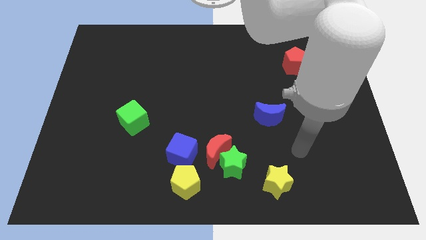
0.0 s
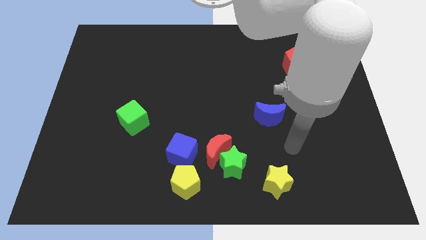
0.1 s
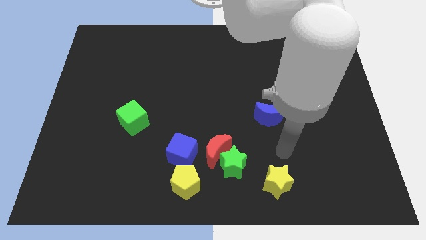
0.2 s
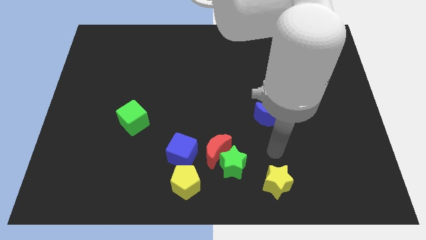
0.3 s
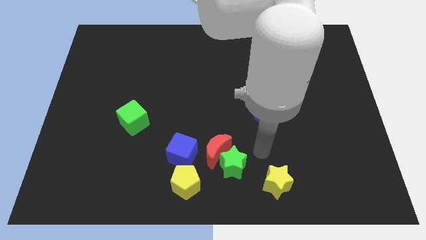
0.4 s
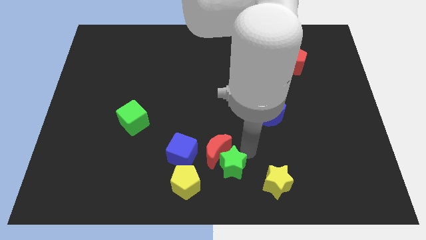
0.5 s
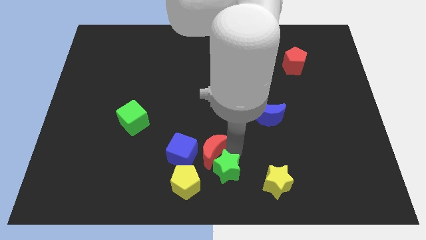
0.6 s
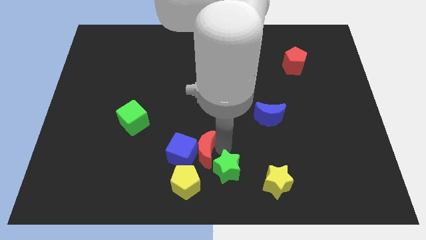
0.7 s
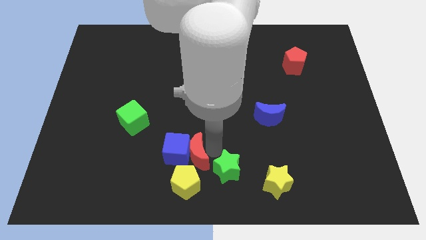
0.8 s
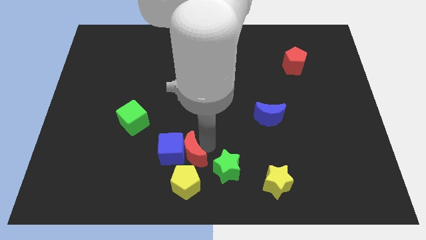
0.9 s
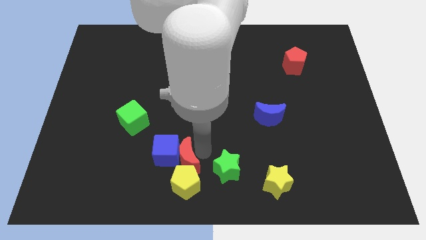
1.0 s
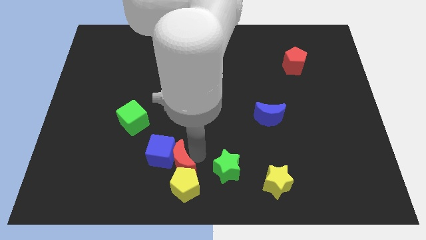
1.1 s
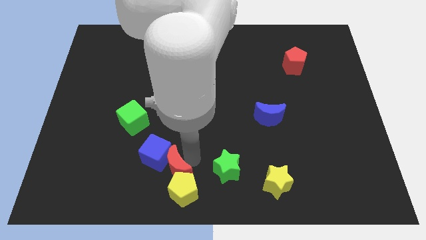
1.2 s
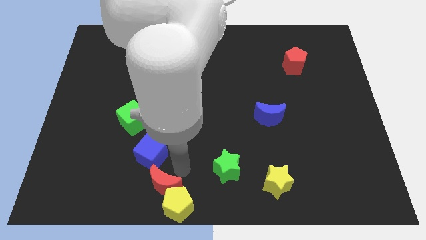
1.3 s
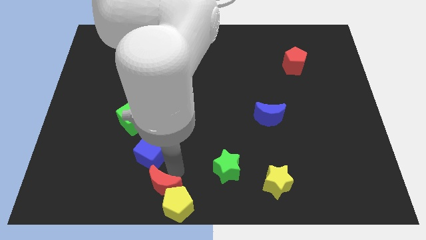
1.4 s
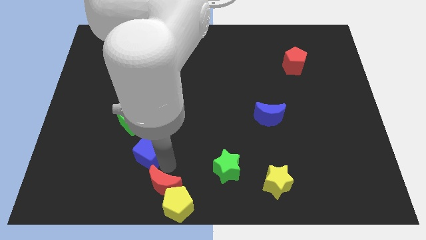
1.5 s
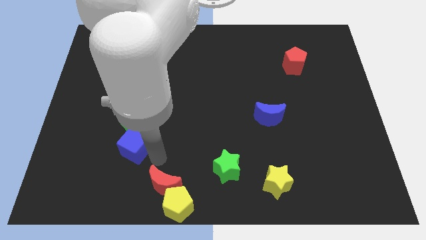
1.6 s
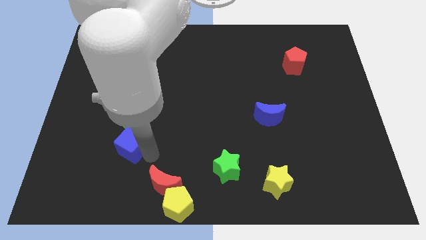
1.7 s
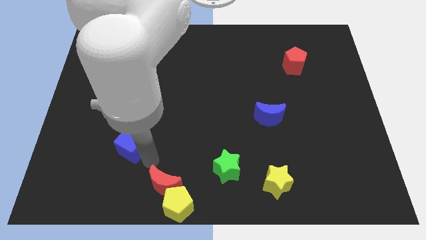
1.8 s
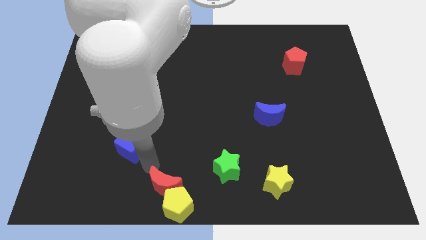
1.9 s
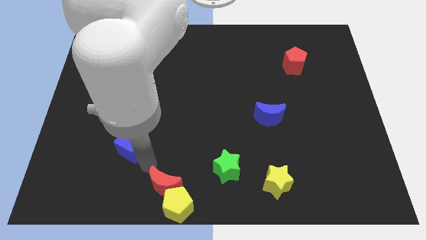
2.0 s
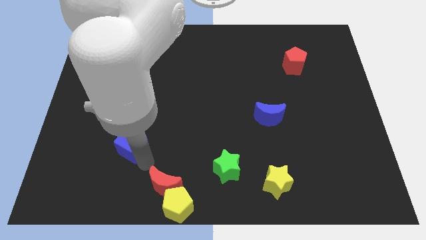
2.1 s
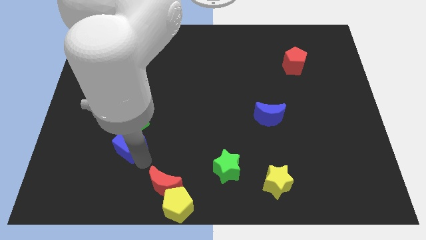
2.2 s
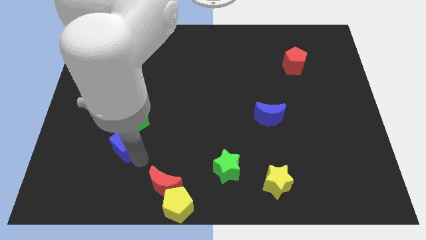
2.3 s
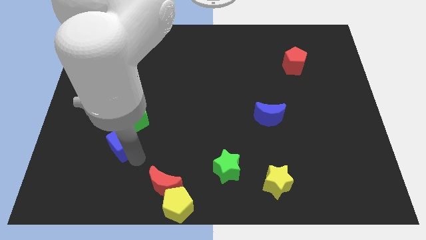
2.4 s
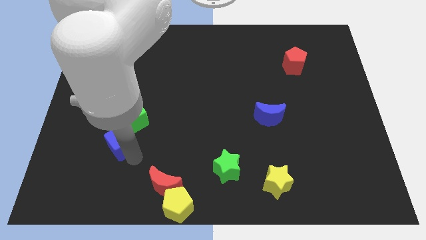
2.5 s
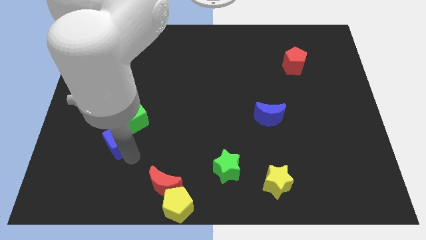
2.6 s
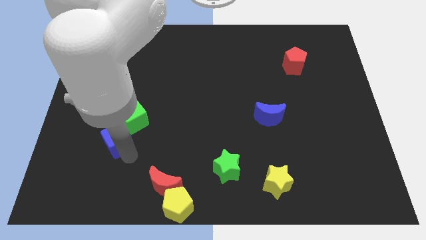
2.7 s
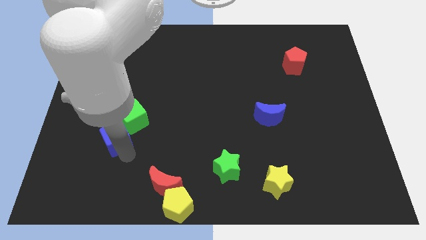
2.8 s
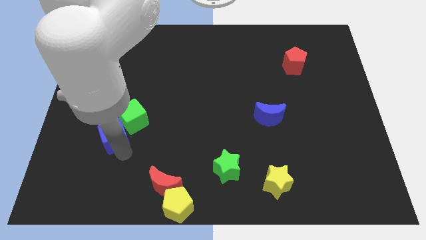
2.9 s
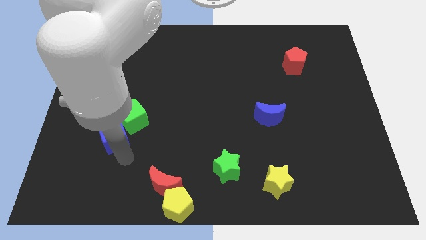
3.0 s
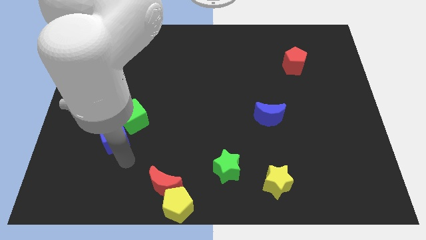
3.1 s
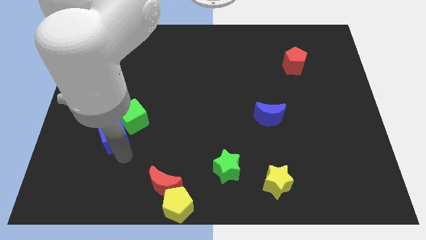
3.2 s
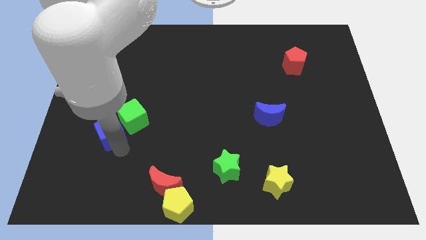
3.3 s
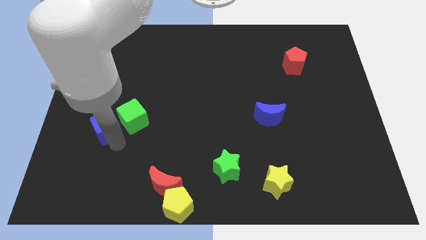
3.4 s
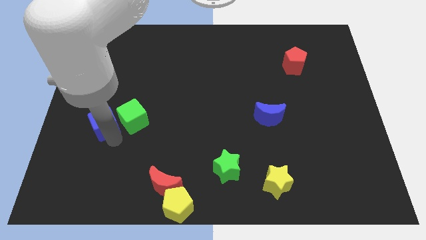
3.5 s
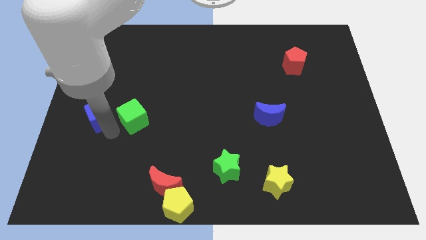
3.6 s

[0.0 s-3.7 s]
move the blue cube to the center left

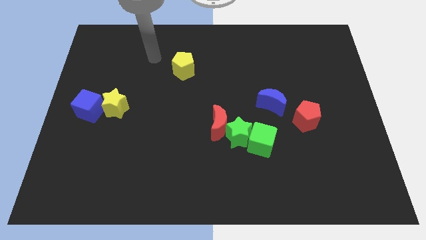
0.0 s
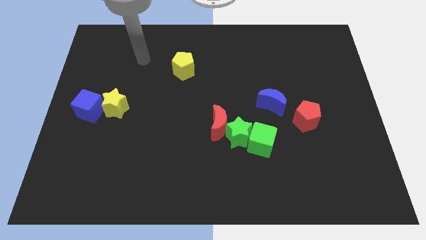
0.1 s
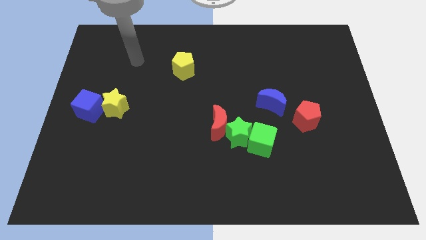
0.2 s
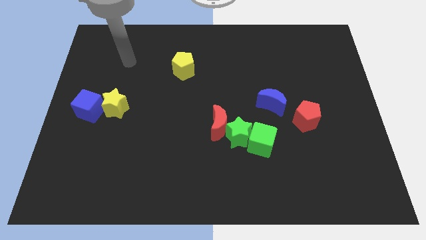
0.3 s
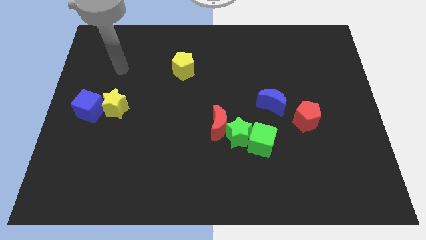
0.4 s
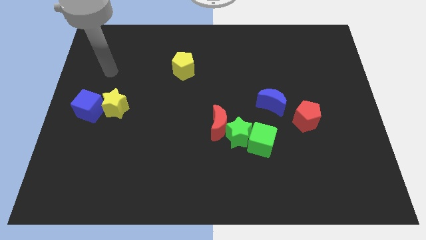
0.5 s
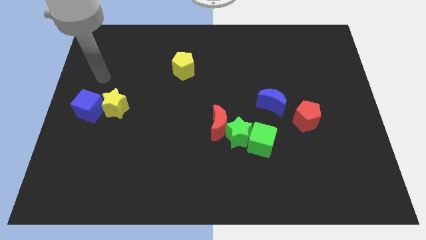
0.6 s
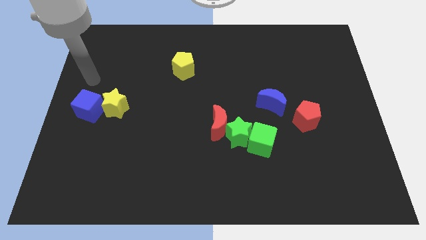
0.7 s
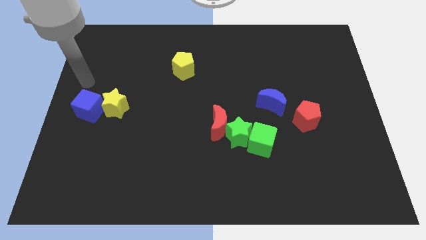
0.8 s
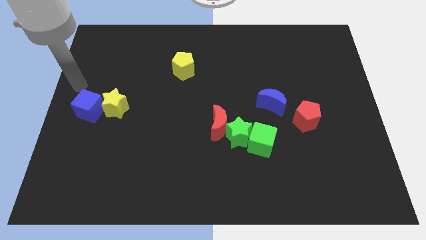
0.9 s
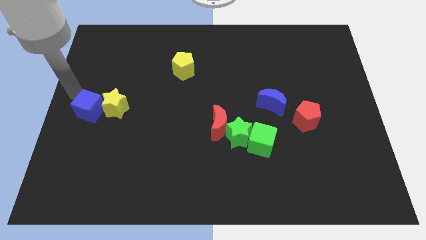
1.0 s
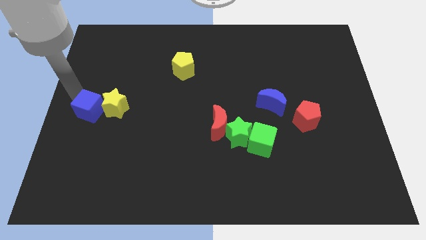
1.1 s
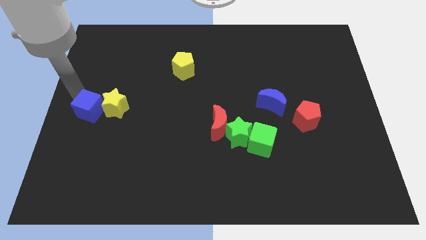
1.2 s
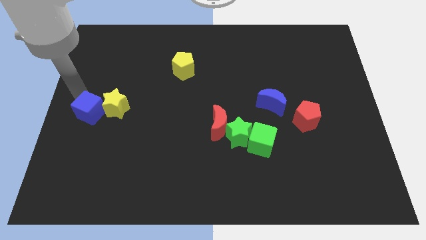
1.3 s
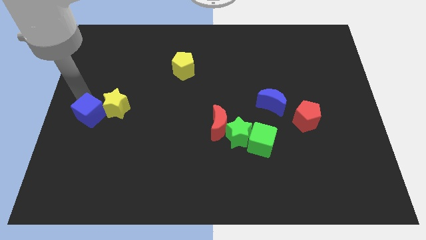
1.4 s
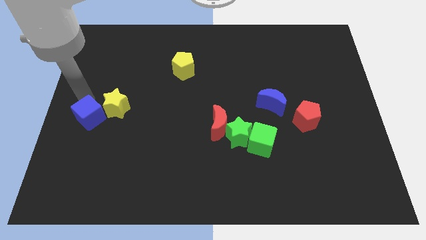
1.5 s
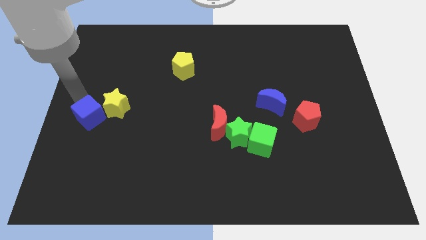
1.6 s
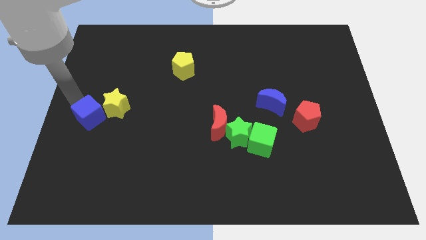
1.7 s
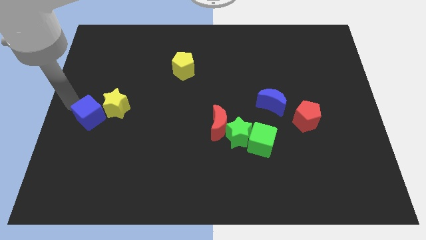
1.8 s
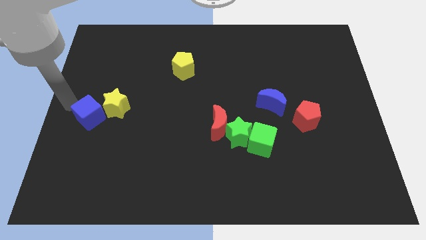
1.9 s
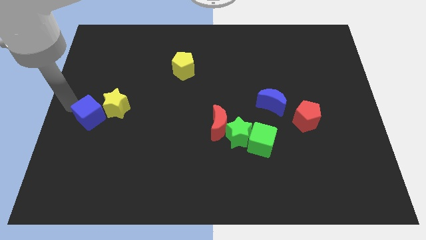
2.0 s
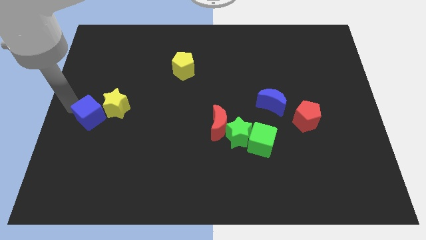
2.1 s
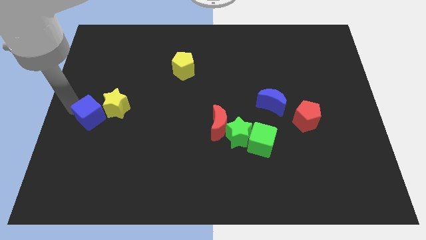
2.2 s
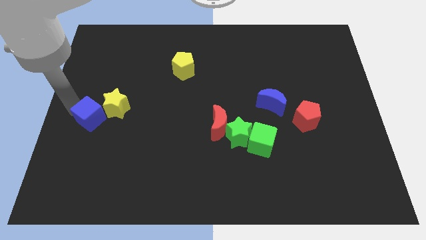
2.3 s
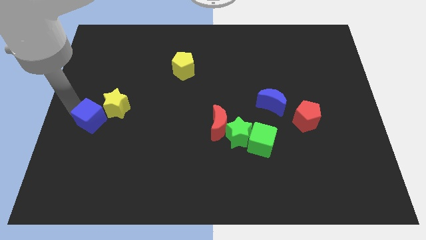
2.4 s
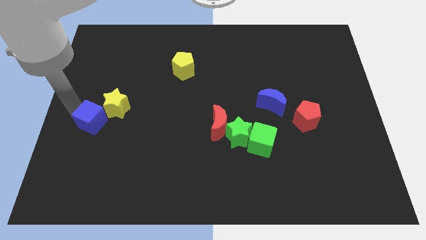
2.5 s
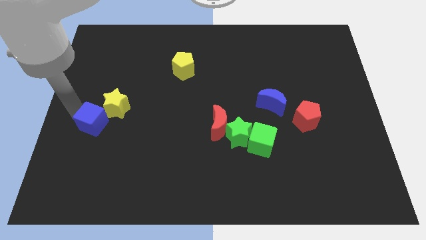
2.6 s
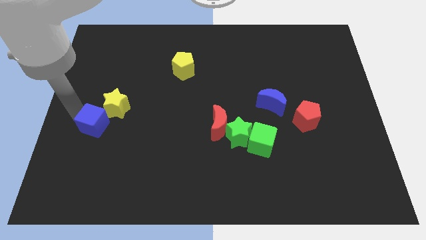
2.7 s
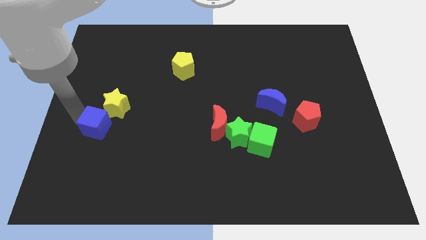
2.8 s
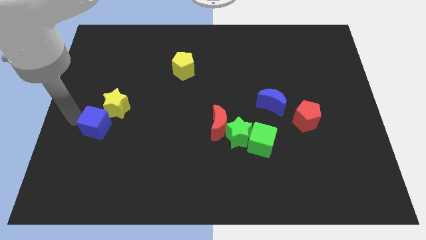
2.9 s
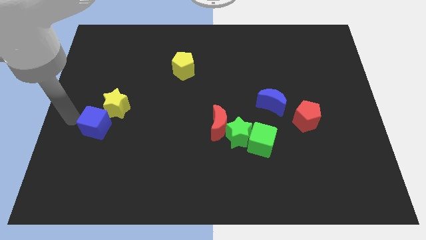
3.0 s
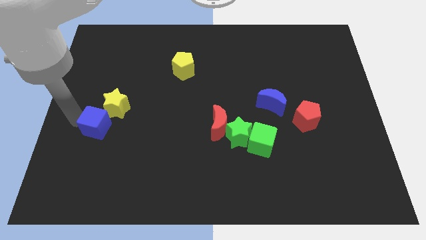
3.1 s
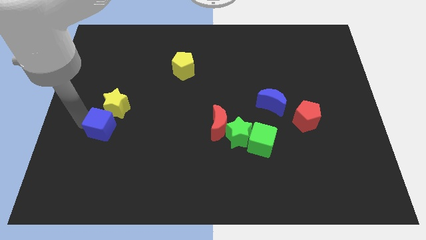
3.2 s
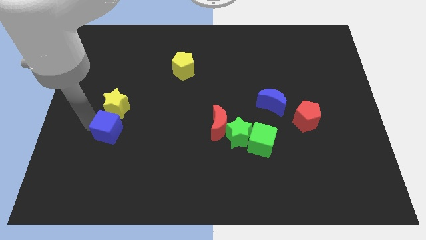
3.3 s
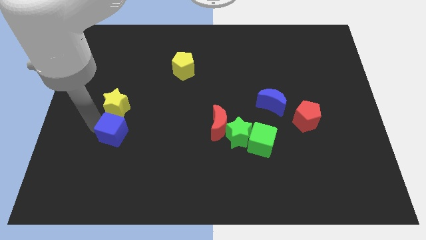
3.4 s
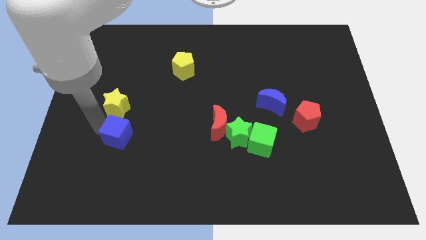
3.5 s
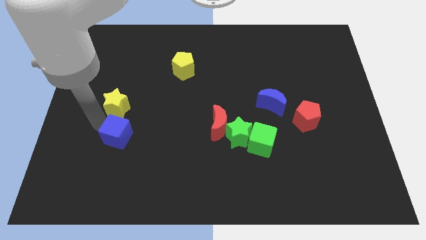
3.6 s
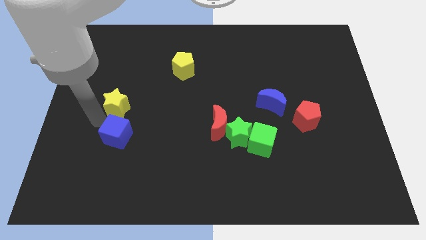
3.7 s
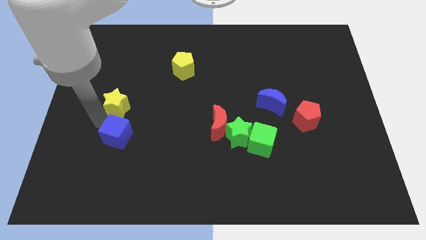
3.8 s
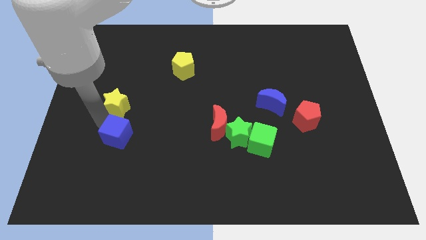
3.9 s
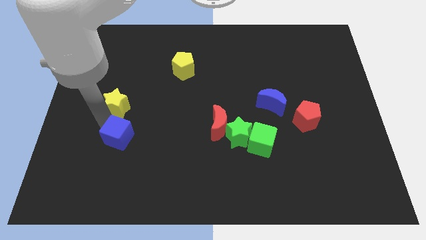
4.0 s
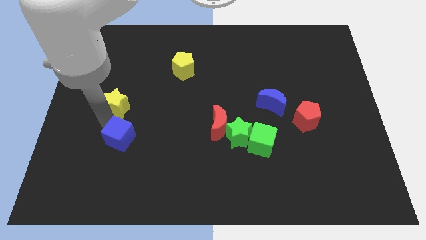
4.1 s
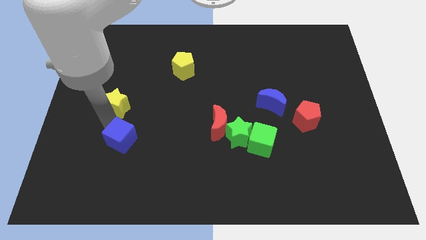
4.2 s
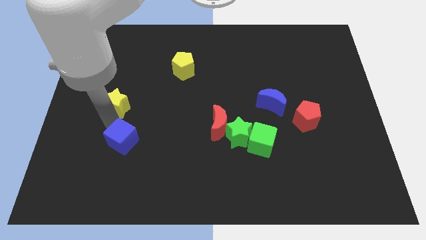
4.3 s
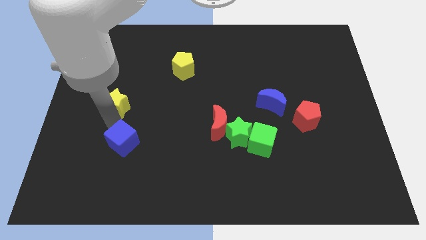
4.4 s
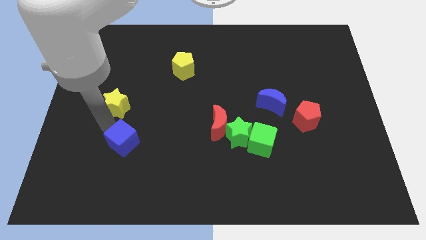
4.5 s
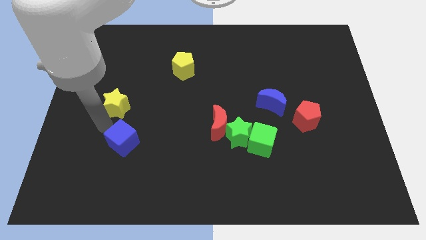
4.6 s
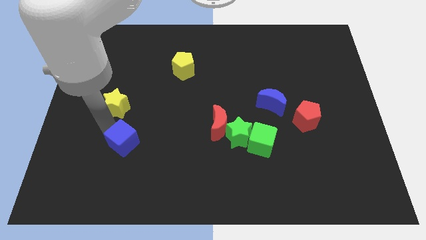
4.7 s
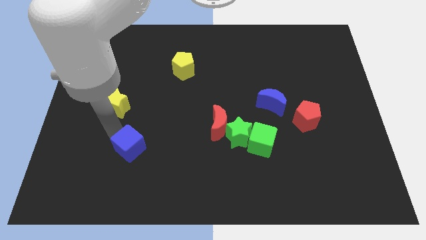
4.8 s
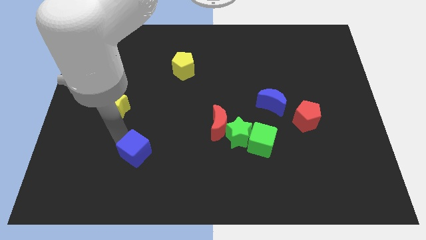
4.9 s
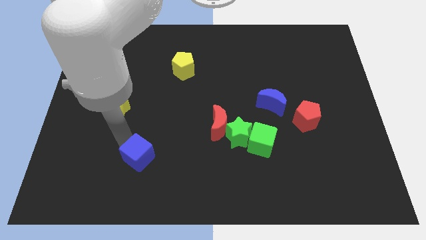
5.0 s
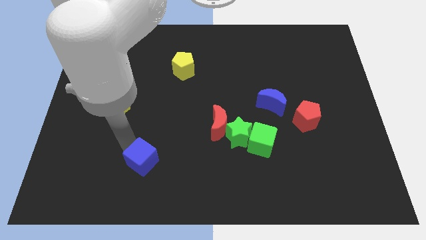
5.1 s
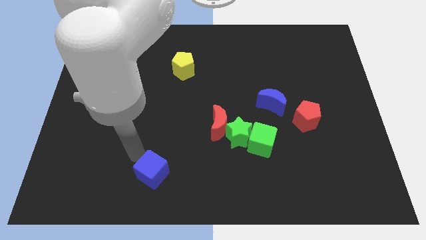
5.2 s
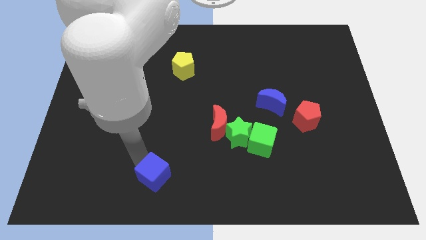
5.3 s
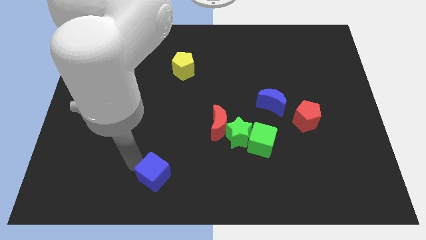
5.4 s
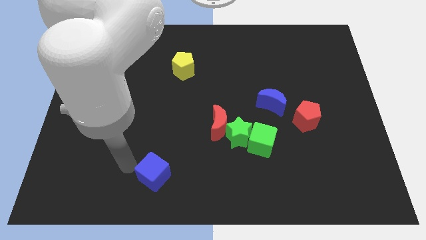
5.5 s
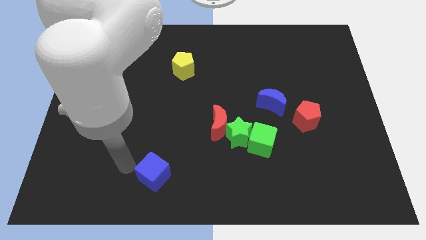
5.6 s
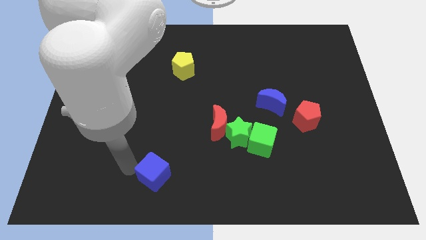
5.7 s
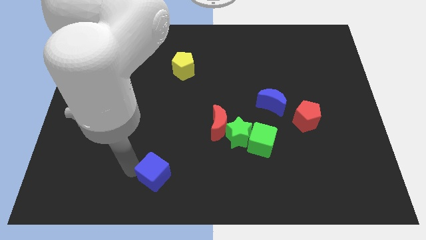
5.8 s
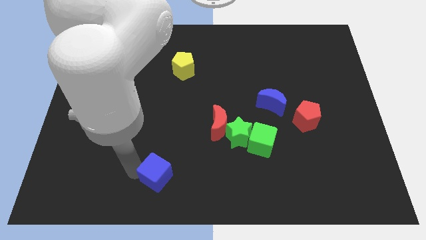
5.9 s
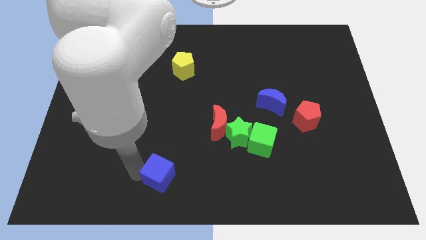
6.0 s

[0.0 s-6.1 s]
slide the blue cube to the bottom side
